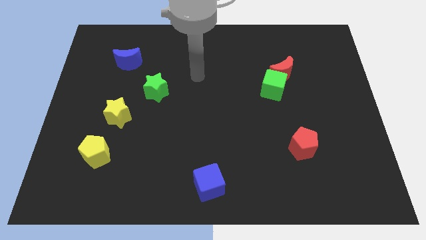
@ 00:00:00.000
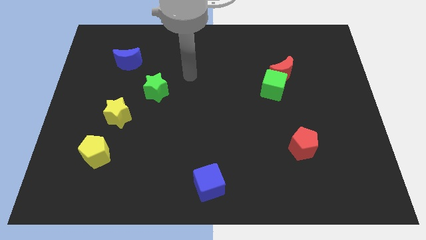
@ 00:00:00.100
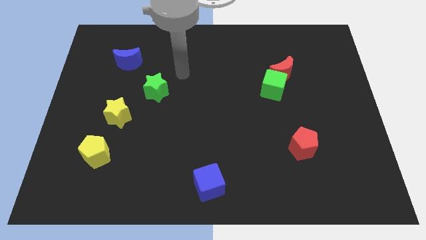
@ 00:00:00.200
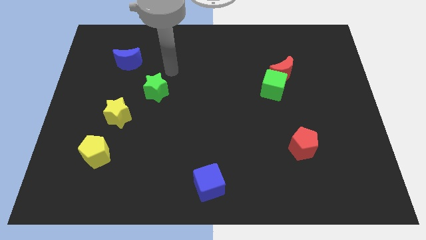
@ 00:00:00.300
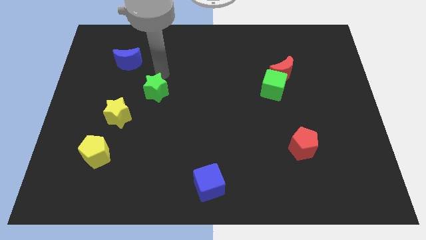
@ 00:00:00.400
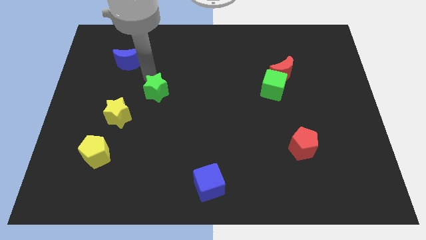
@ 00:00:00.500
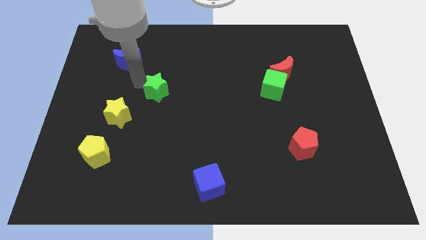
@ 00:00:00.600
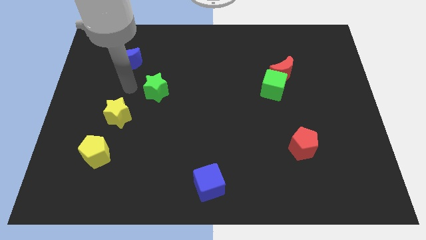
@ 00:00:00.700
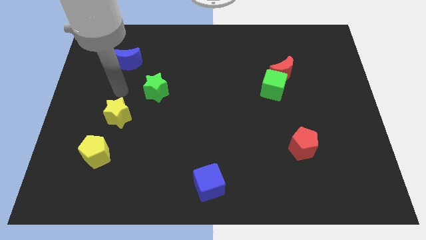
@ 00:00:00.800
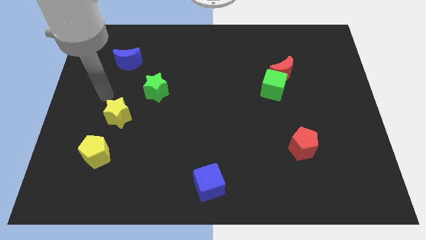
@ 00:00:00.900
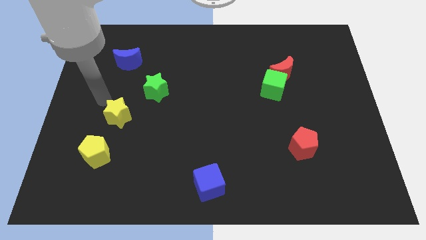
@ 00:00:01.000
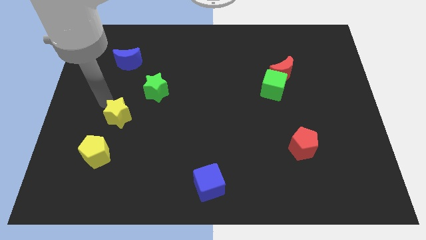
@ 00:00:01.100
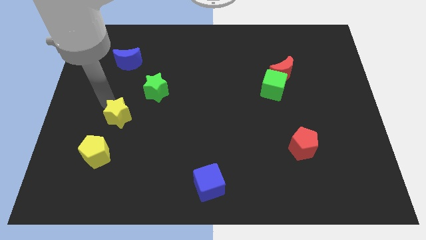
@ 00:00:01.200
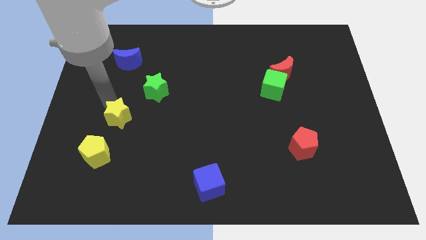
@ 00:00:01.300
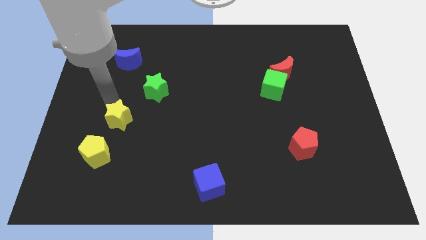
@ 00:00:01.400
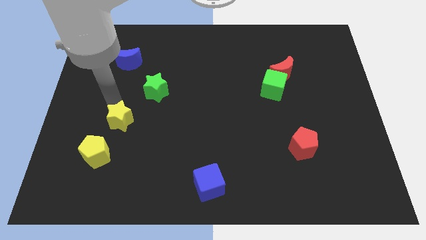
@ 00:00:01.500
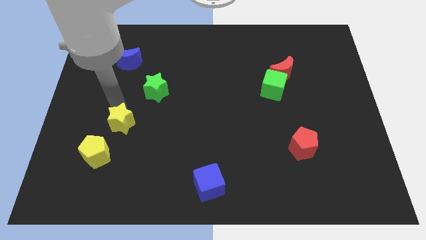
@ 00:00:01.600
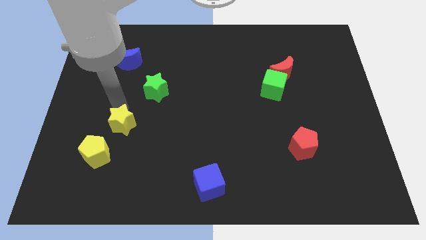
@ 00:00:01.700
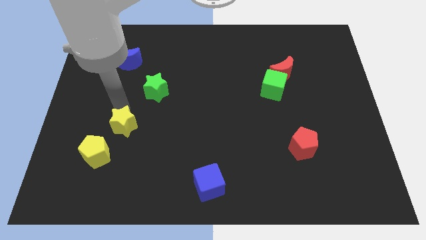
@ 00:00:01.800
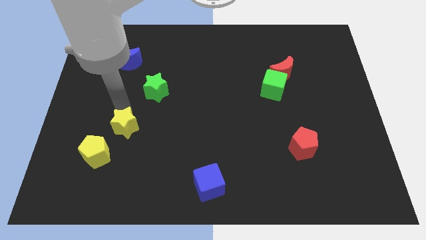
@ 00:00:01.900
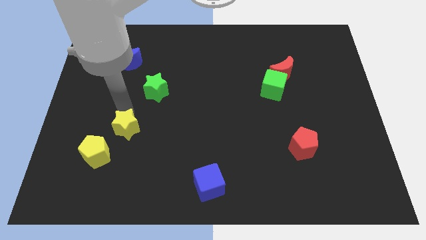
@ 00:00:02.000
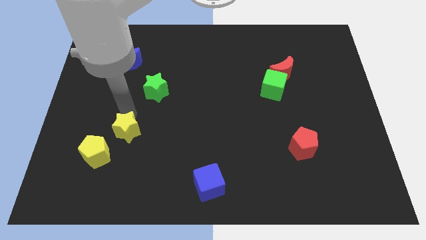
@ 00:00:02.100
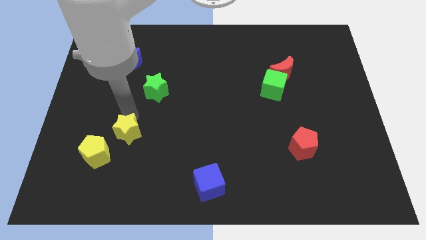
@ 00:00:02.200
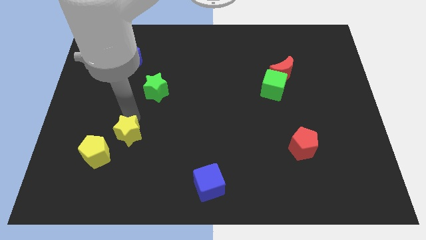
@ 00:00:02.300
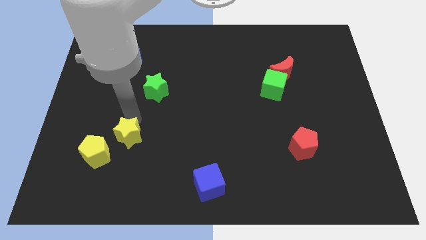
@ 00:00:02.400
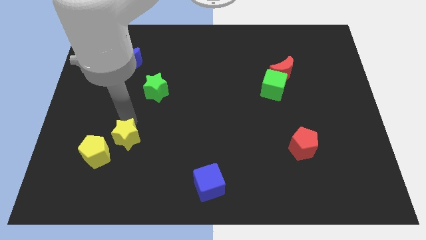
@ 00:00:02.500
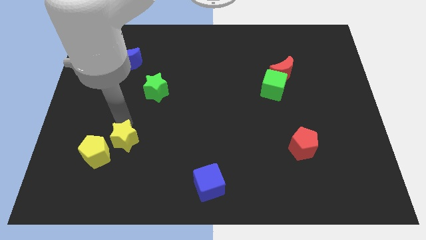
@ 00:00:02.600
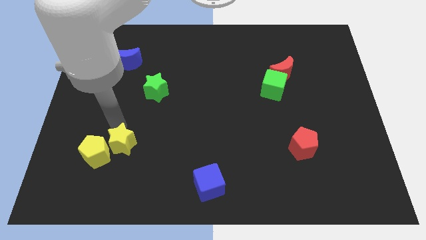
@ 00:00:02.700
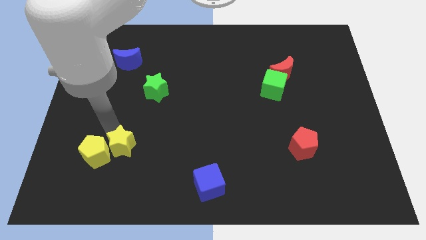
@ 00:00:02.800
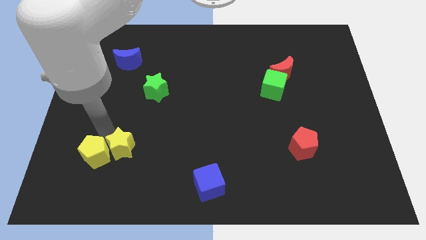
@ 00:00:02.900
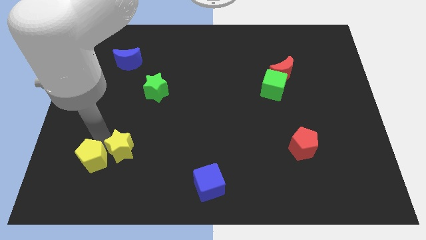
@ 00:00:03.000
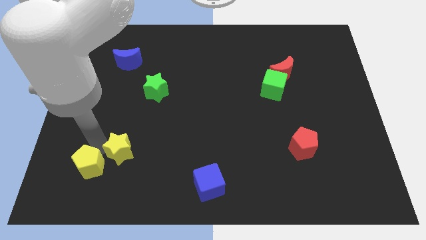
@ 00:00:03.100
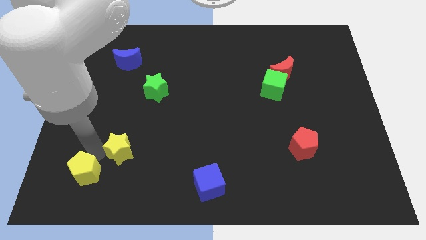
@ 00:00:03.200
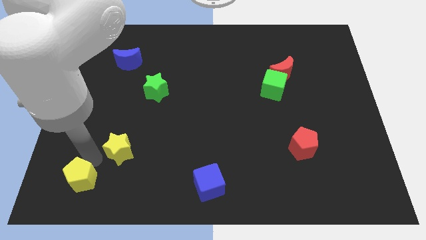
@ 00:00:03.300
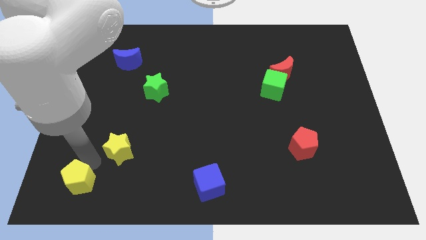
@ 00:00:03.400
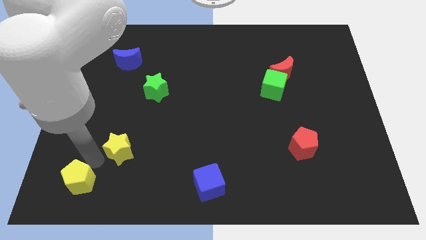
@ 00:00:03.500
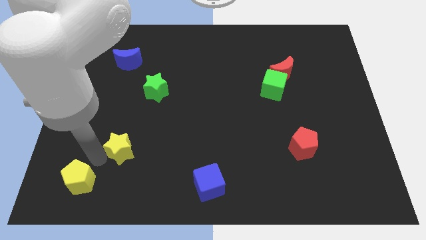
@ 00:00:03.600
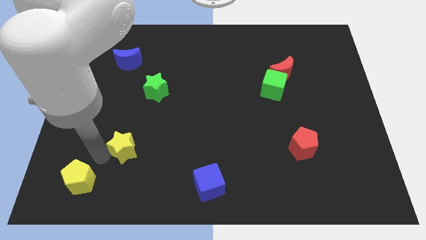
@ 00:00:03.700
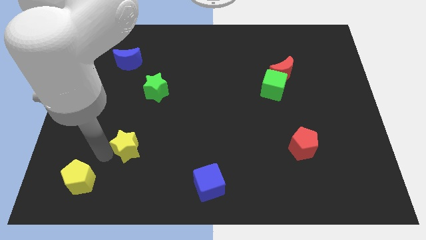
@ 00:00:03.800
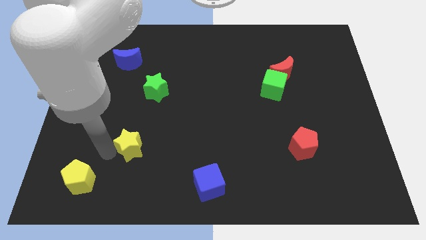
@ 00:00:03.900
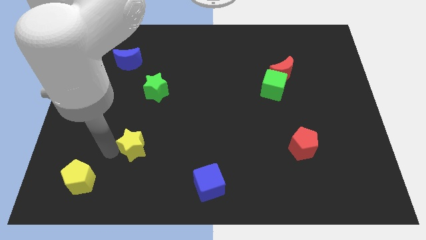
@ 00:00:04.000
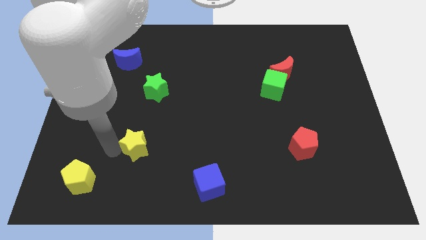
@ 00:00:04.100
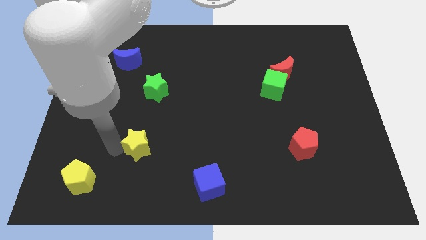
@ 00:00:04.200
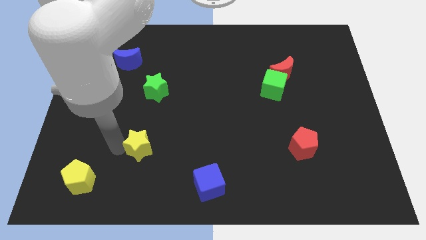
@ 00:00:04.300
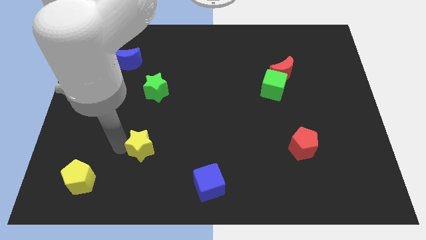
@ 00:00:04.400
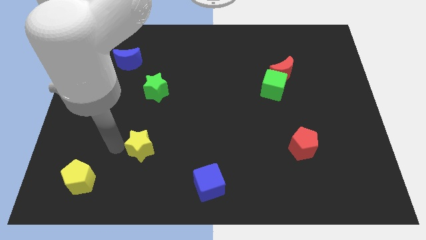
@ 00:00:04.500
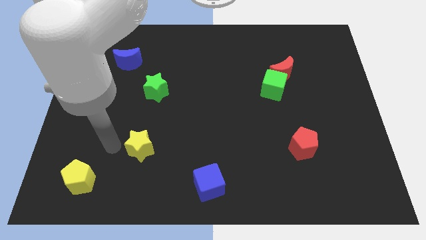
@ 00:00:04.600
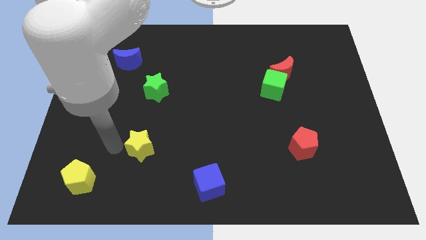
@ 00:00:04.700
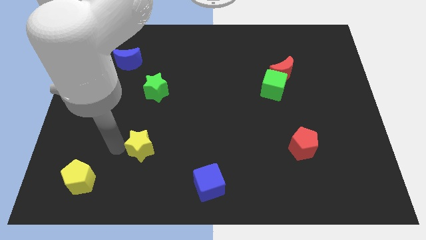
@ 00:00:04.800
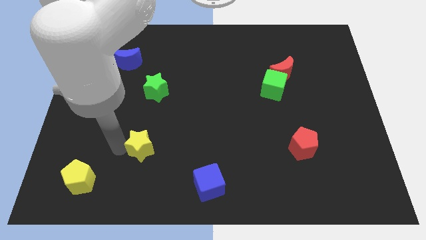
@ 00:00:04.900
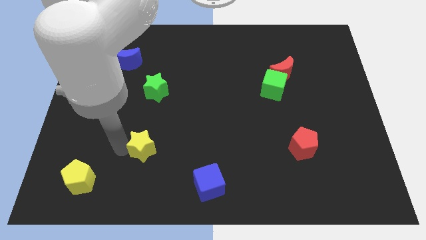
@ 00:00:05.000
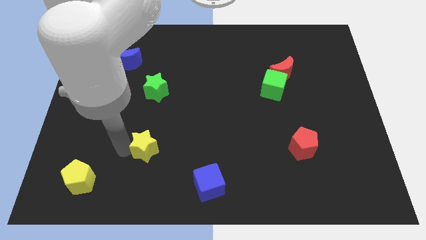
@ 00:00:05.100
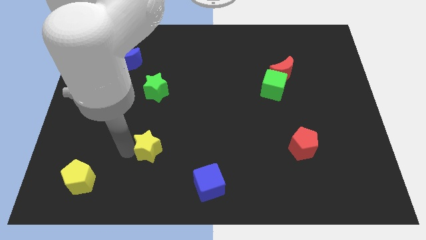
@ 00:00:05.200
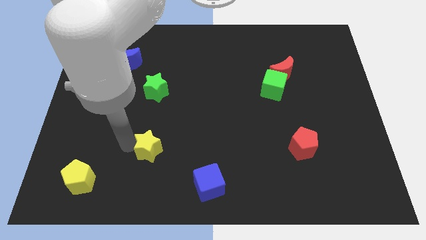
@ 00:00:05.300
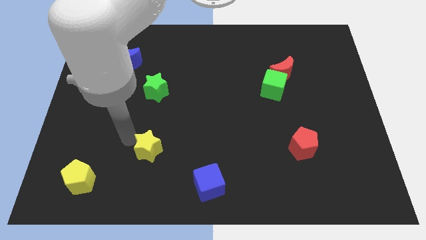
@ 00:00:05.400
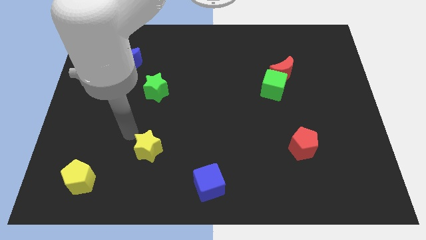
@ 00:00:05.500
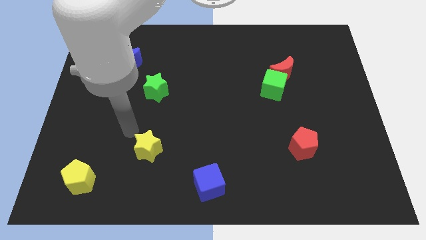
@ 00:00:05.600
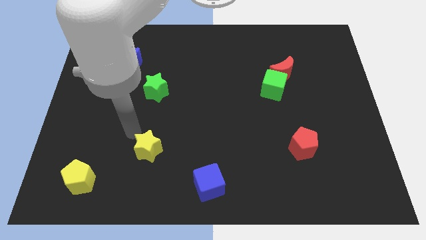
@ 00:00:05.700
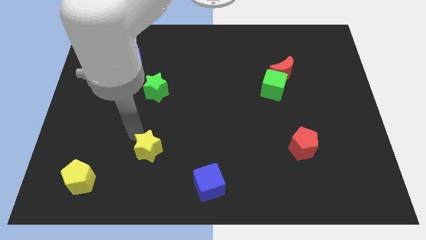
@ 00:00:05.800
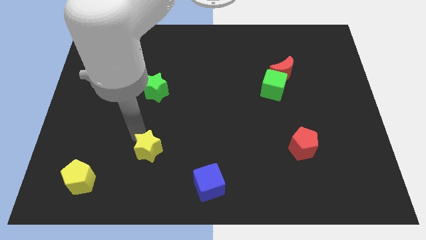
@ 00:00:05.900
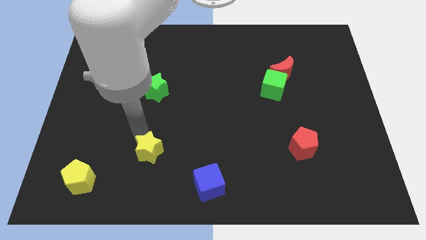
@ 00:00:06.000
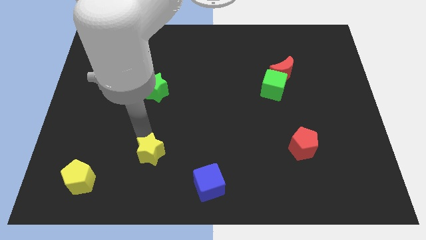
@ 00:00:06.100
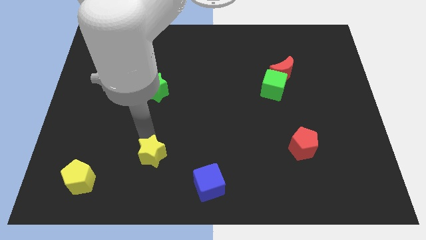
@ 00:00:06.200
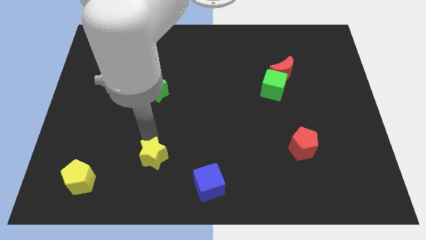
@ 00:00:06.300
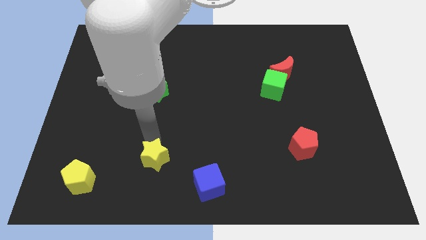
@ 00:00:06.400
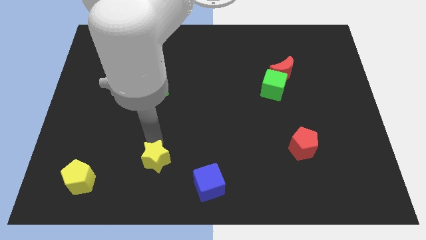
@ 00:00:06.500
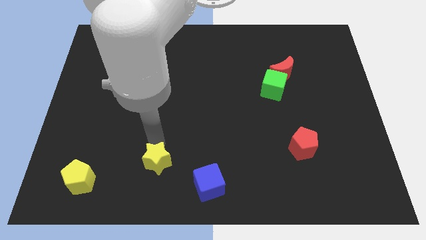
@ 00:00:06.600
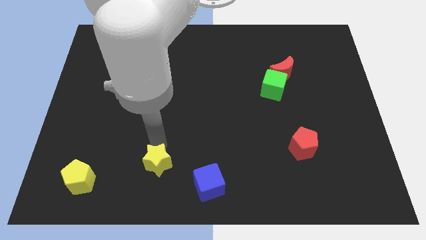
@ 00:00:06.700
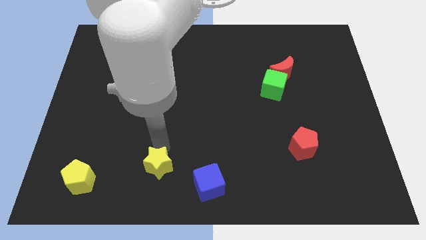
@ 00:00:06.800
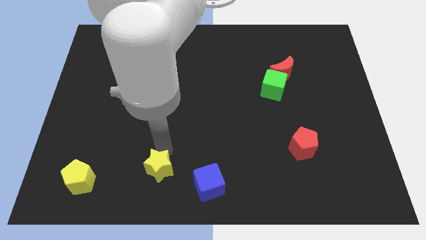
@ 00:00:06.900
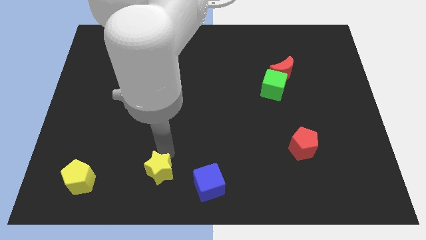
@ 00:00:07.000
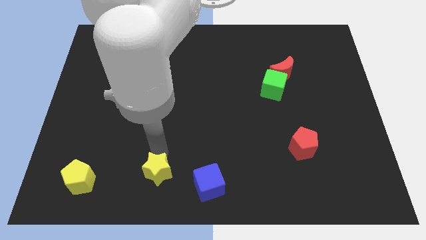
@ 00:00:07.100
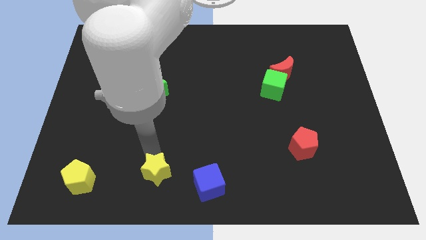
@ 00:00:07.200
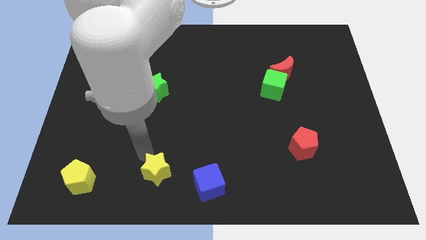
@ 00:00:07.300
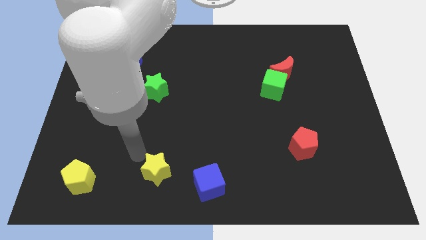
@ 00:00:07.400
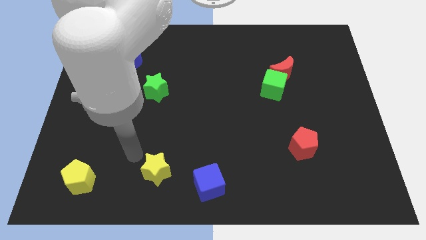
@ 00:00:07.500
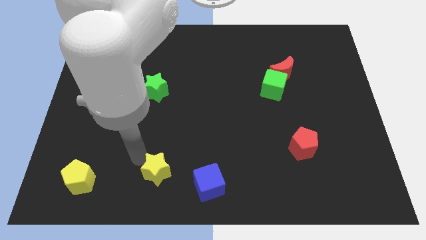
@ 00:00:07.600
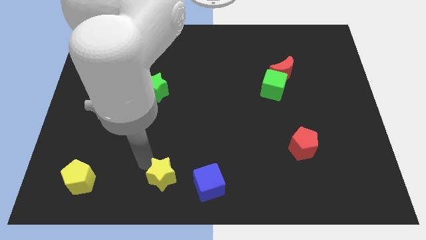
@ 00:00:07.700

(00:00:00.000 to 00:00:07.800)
push the yellow star to the bottom
